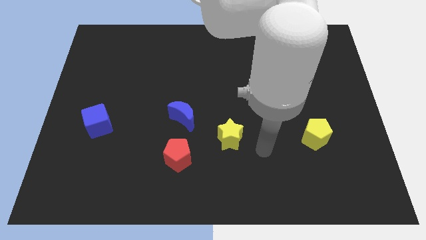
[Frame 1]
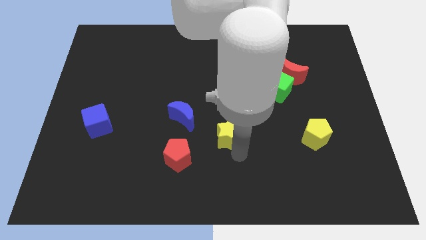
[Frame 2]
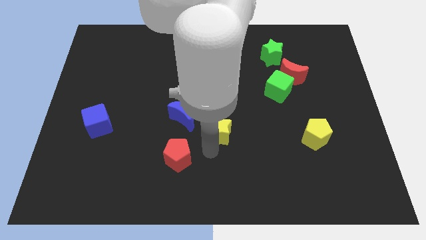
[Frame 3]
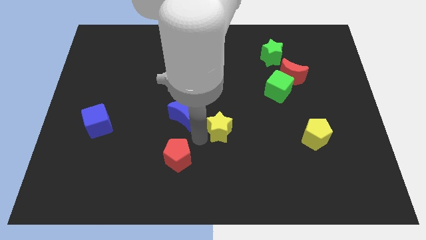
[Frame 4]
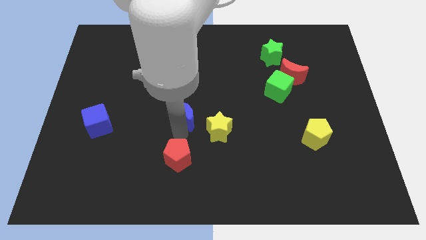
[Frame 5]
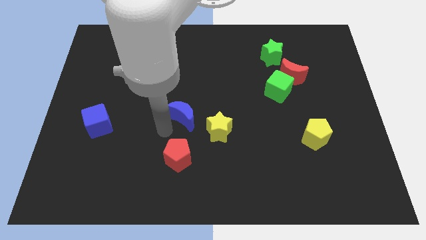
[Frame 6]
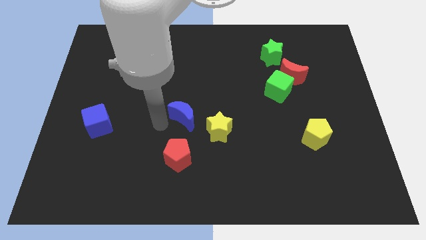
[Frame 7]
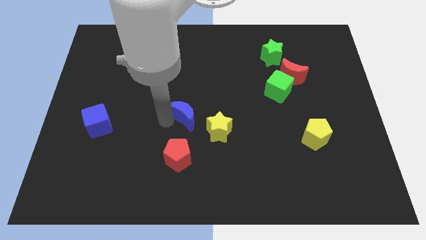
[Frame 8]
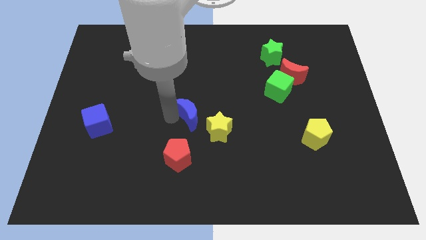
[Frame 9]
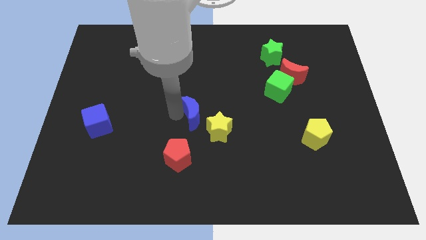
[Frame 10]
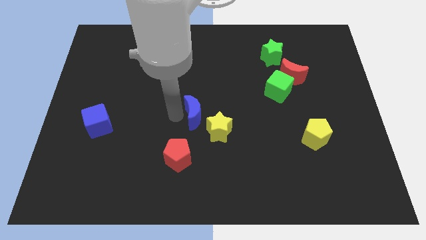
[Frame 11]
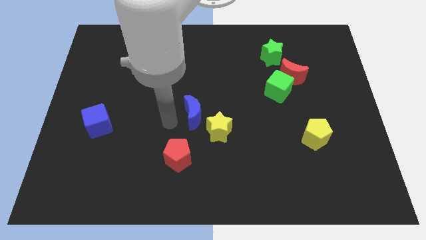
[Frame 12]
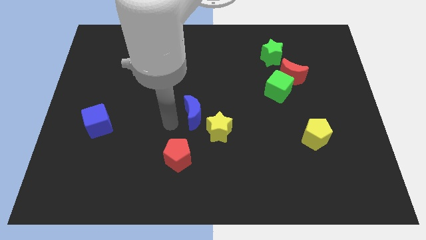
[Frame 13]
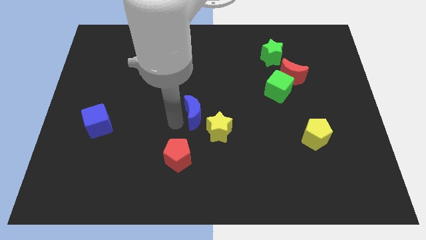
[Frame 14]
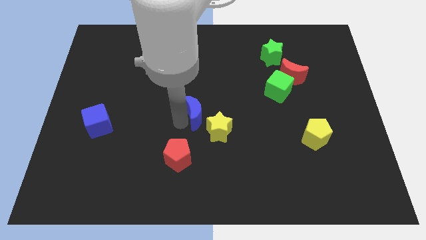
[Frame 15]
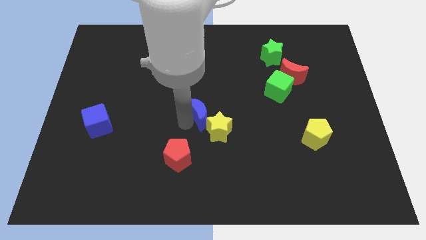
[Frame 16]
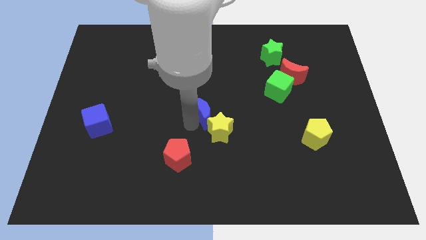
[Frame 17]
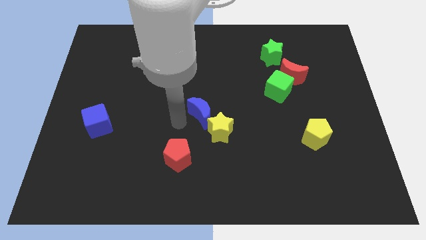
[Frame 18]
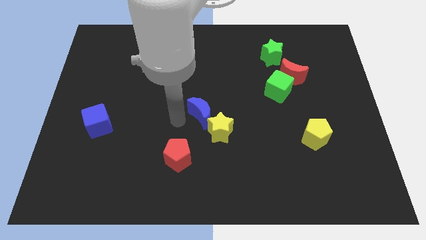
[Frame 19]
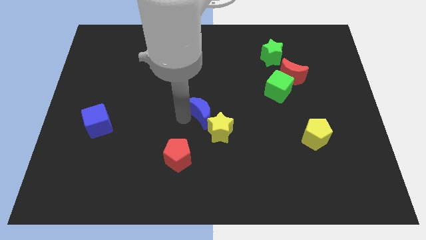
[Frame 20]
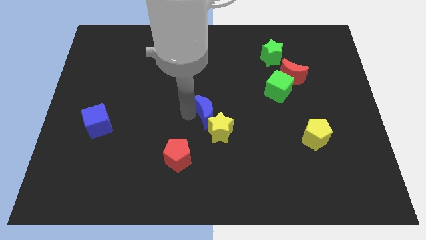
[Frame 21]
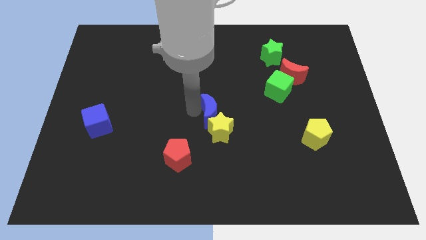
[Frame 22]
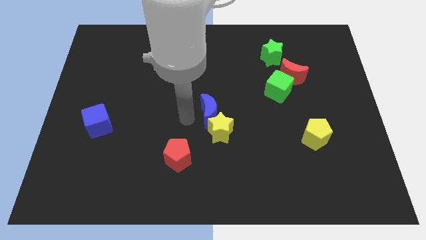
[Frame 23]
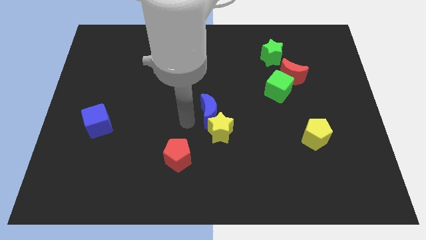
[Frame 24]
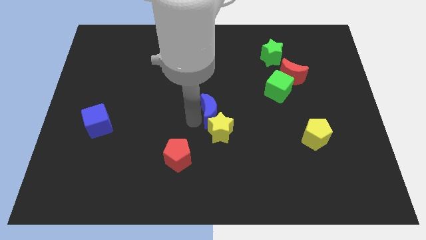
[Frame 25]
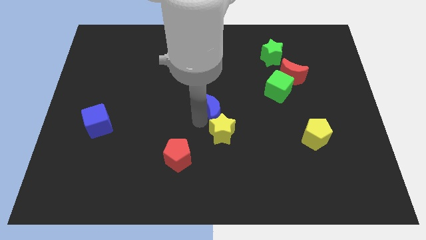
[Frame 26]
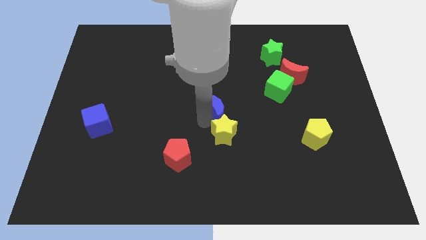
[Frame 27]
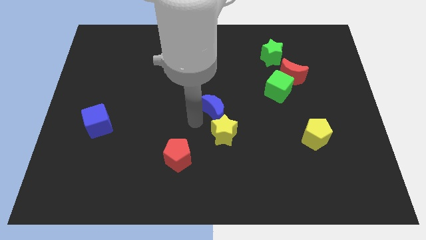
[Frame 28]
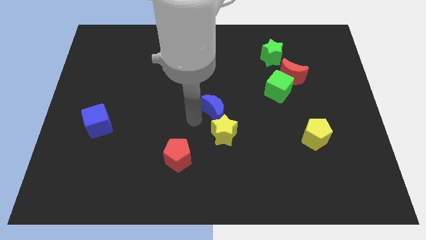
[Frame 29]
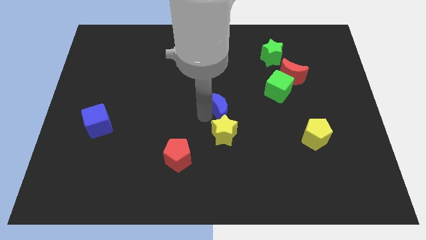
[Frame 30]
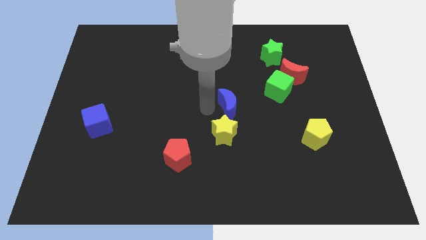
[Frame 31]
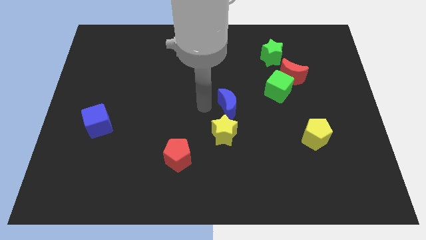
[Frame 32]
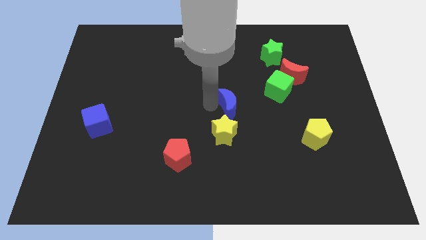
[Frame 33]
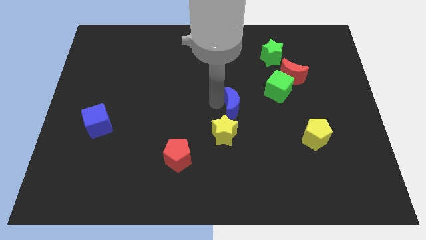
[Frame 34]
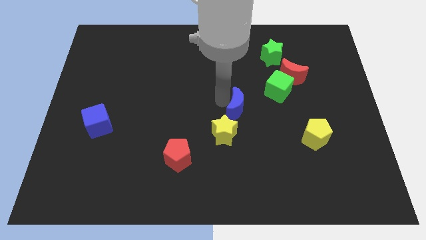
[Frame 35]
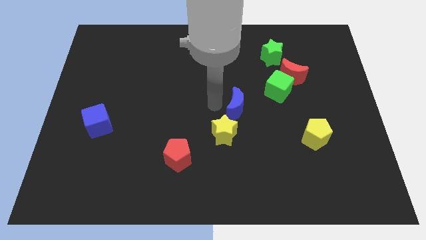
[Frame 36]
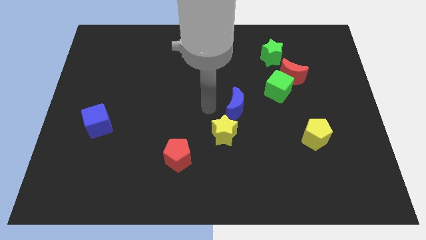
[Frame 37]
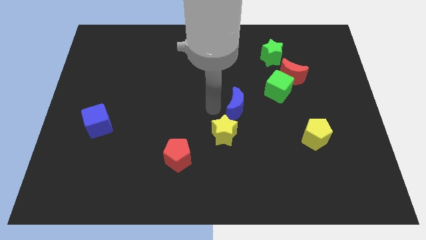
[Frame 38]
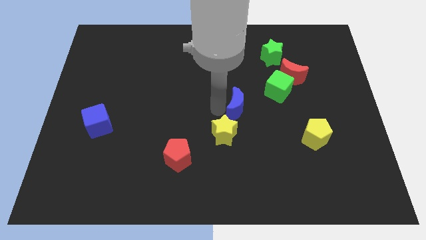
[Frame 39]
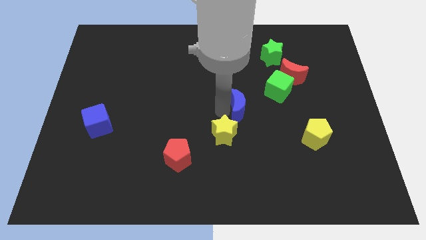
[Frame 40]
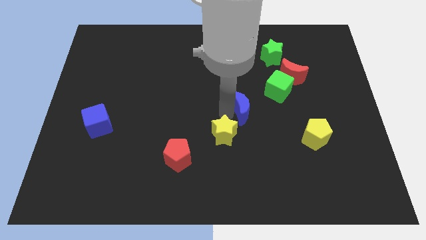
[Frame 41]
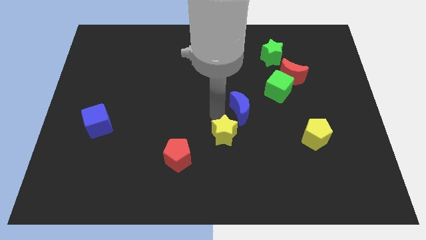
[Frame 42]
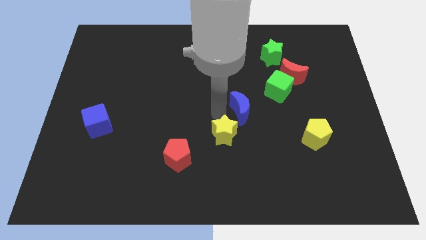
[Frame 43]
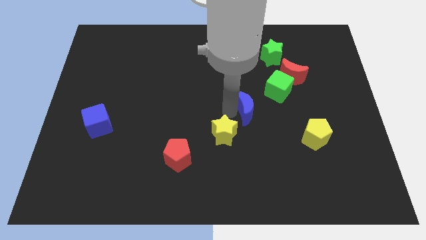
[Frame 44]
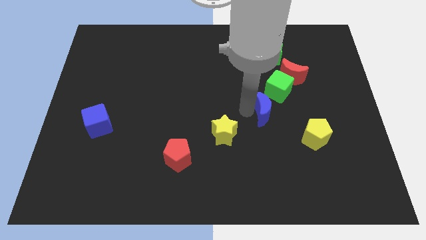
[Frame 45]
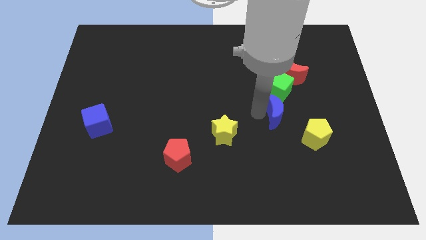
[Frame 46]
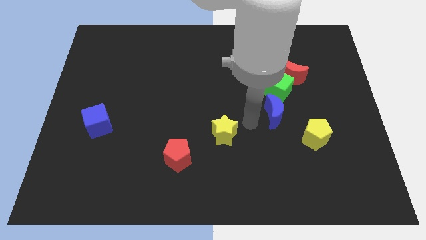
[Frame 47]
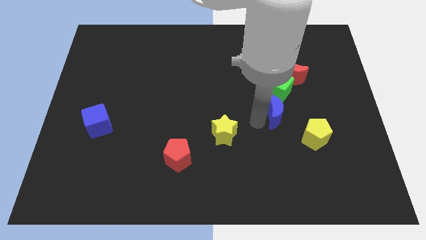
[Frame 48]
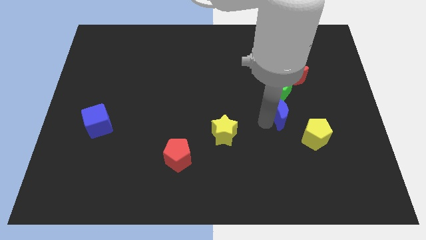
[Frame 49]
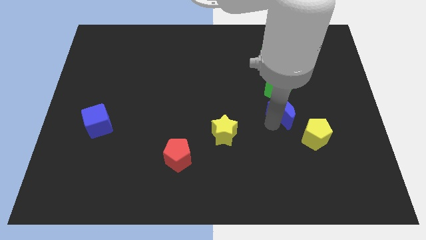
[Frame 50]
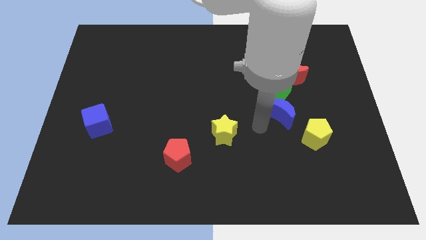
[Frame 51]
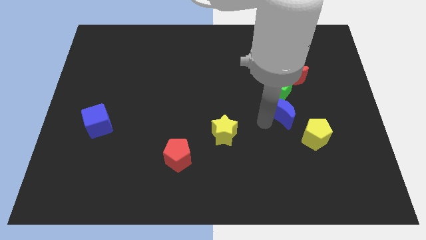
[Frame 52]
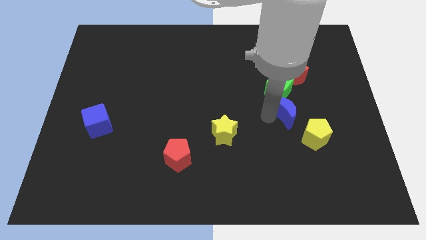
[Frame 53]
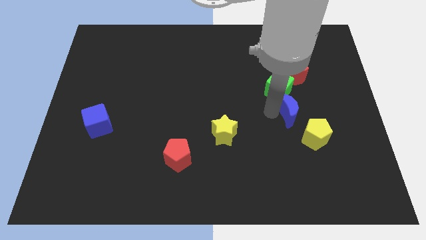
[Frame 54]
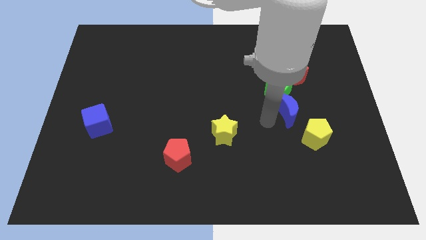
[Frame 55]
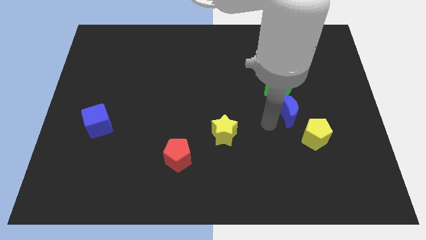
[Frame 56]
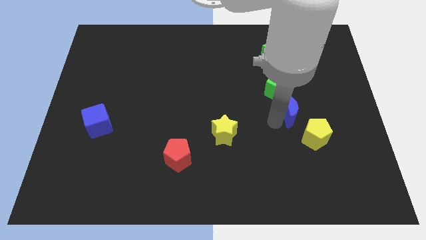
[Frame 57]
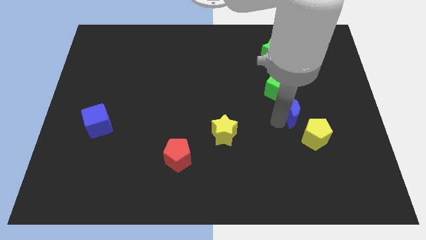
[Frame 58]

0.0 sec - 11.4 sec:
put the blue moon to the top side of the yellow pentagon

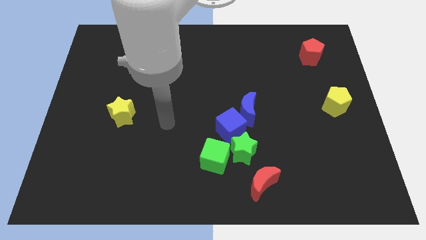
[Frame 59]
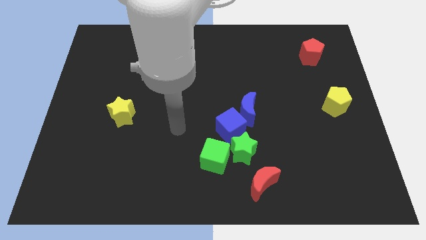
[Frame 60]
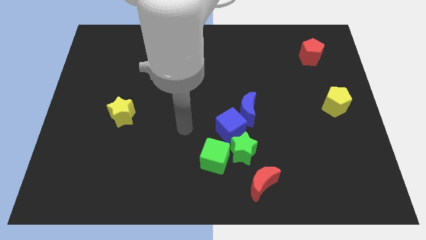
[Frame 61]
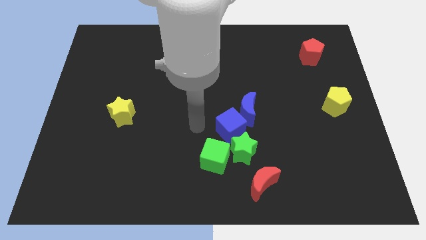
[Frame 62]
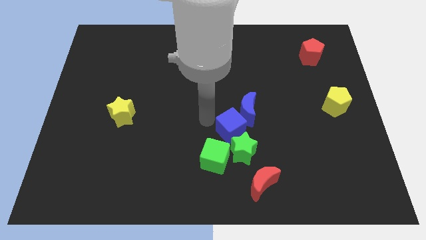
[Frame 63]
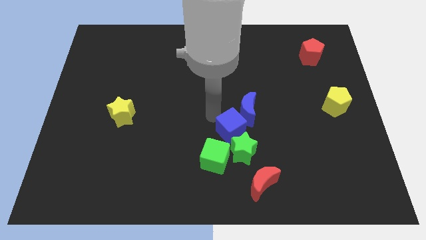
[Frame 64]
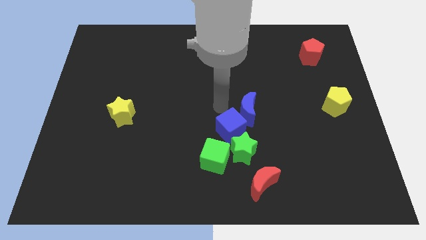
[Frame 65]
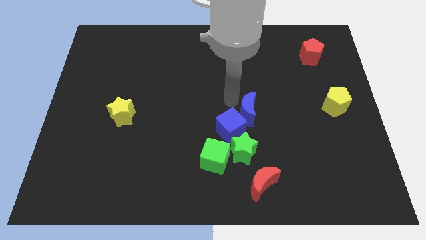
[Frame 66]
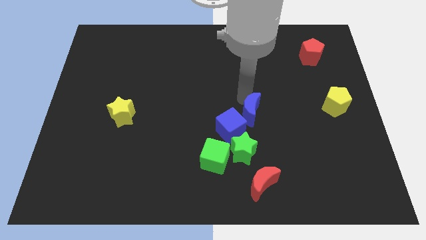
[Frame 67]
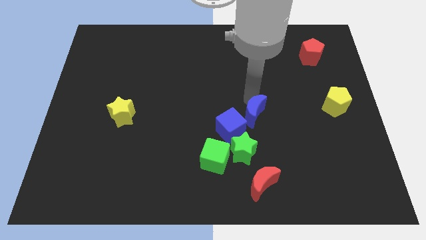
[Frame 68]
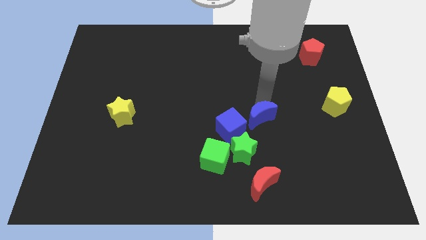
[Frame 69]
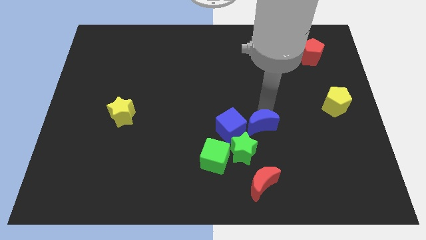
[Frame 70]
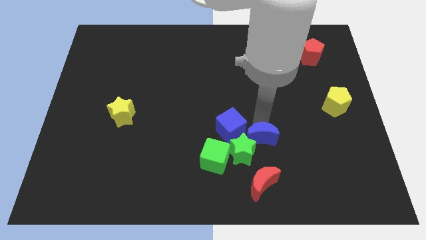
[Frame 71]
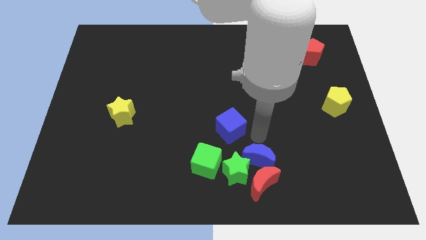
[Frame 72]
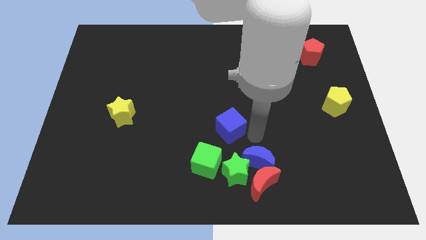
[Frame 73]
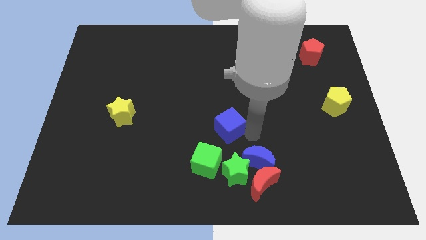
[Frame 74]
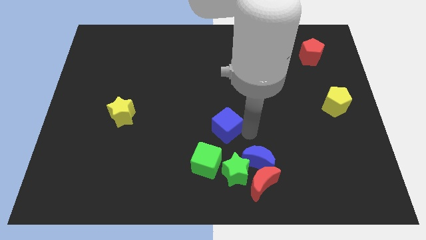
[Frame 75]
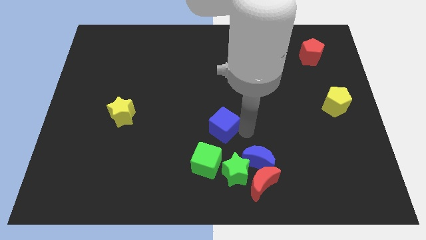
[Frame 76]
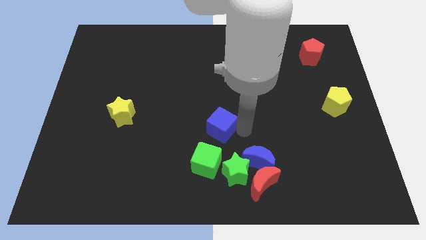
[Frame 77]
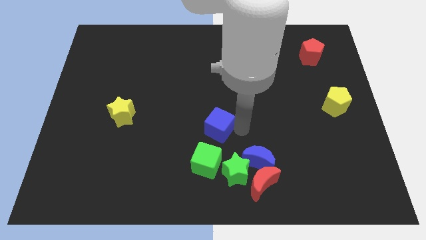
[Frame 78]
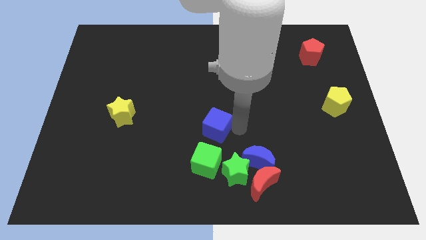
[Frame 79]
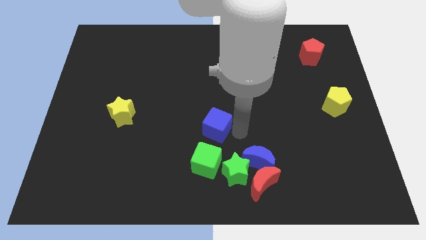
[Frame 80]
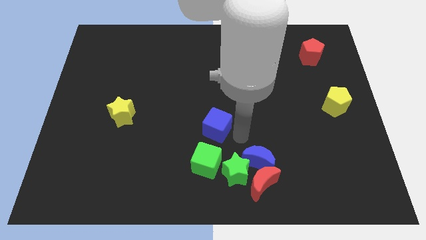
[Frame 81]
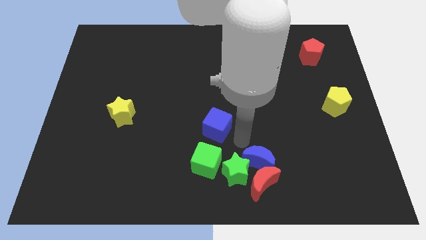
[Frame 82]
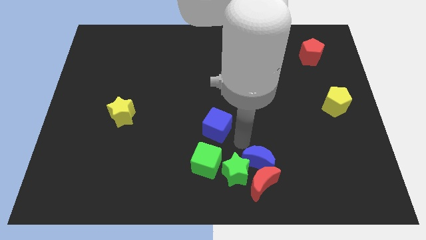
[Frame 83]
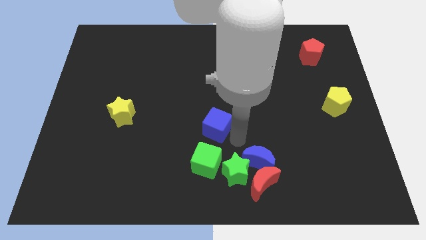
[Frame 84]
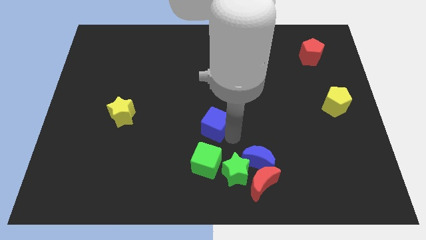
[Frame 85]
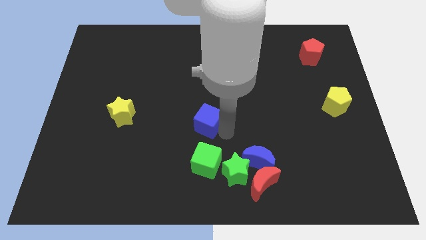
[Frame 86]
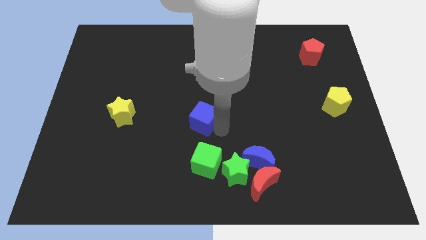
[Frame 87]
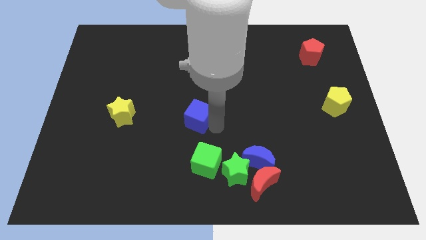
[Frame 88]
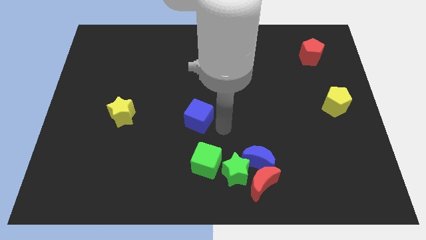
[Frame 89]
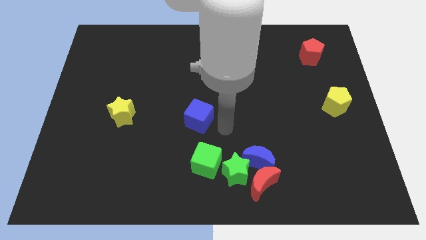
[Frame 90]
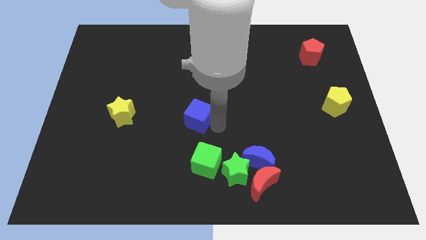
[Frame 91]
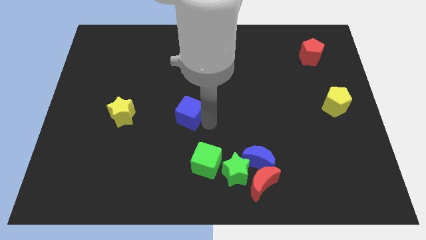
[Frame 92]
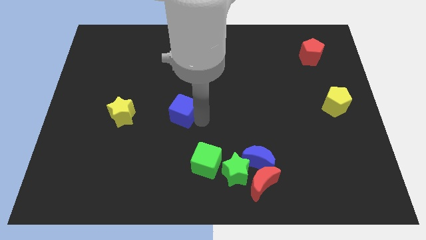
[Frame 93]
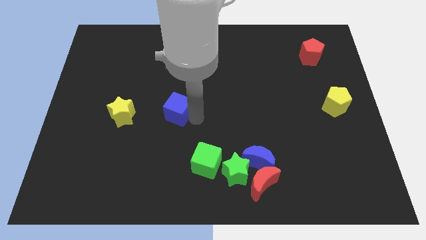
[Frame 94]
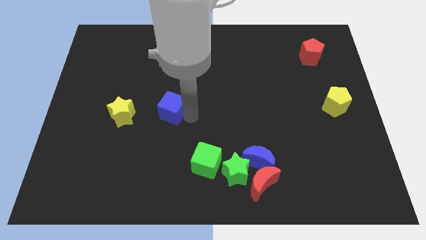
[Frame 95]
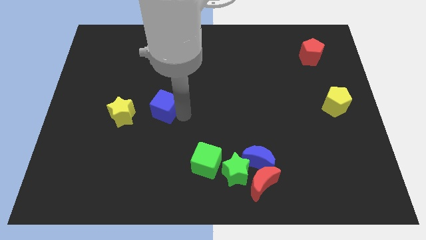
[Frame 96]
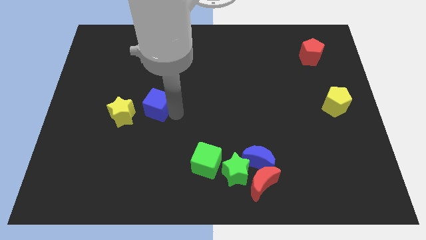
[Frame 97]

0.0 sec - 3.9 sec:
push the blue cube diagonally up and to the right of the yellow star
